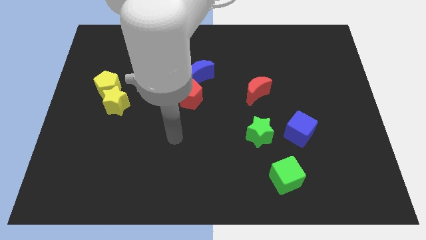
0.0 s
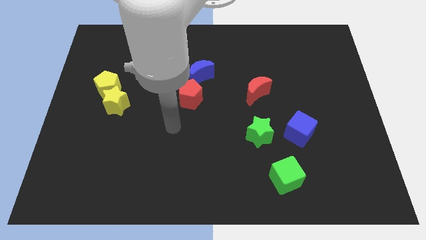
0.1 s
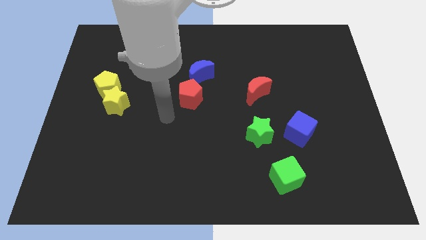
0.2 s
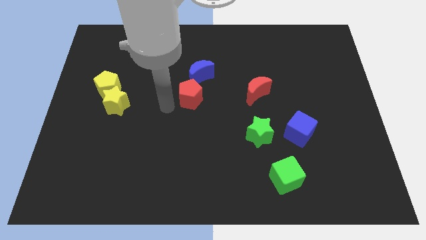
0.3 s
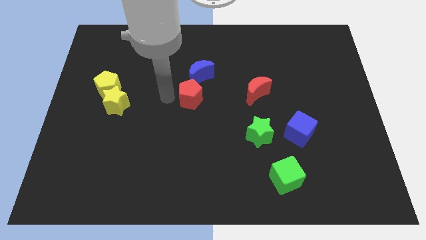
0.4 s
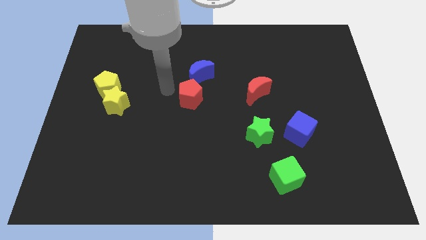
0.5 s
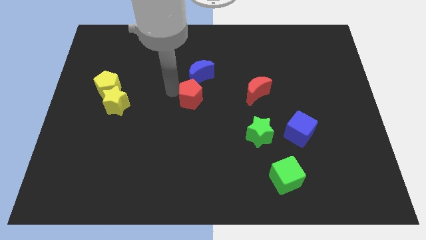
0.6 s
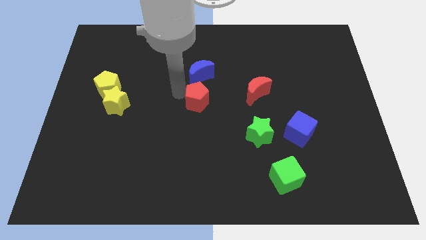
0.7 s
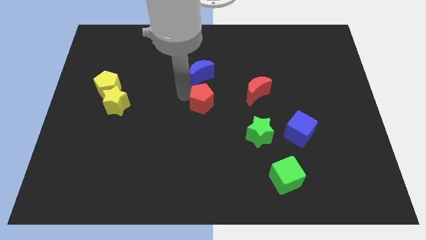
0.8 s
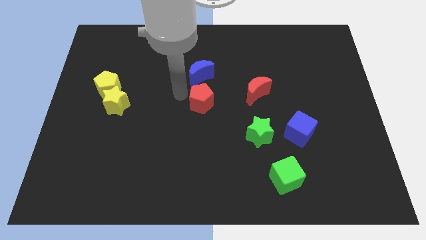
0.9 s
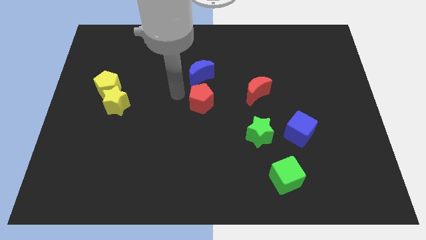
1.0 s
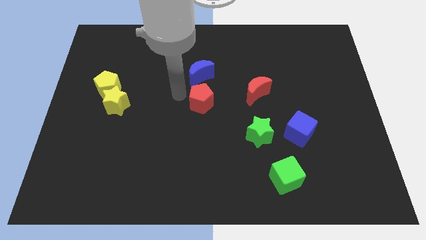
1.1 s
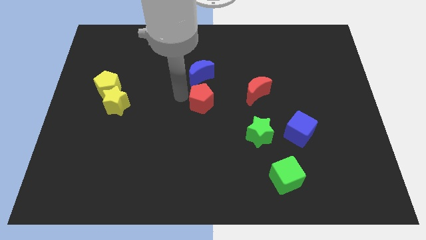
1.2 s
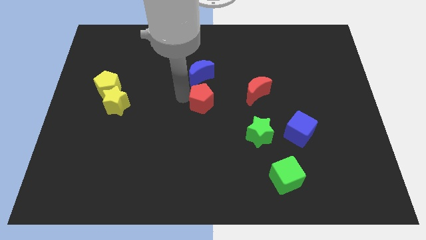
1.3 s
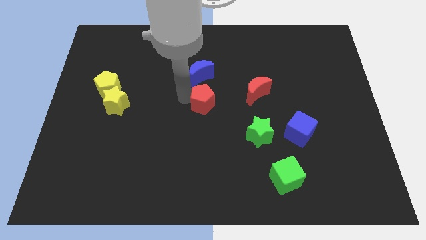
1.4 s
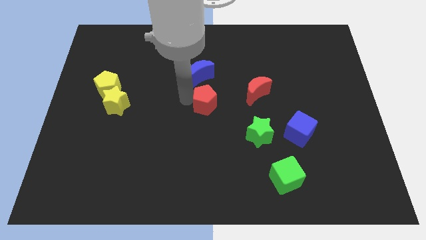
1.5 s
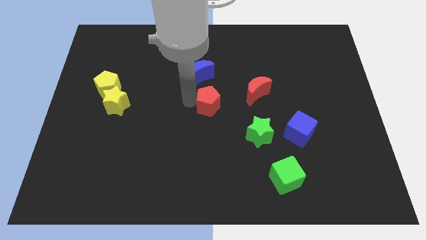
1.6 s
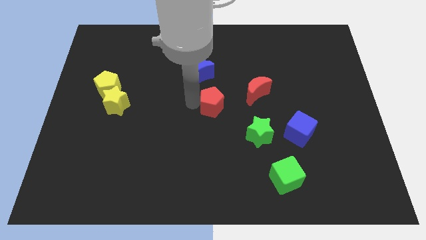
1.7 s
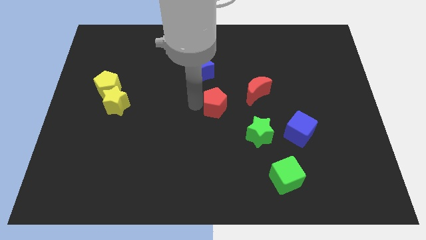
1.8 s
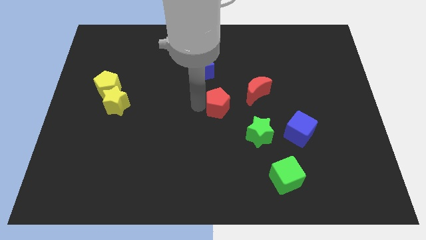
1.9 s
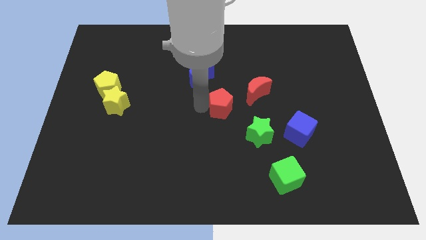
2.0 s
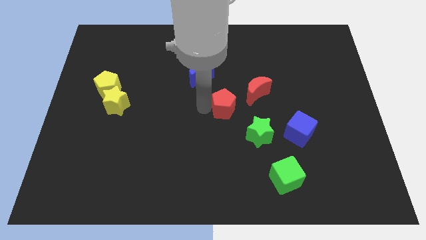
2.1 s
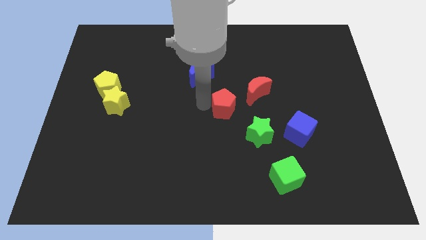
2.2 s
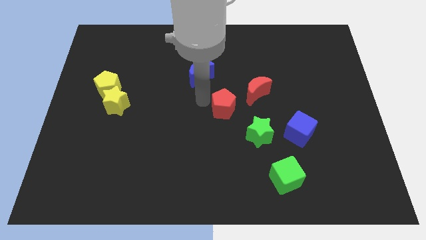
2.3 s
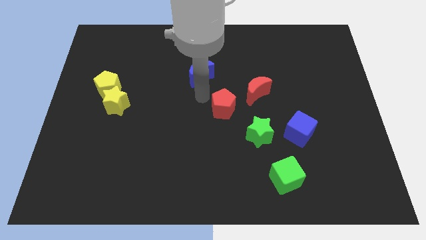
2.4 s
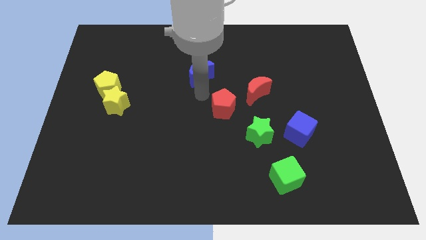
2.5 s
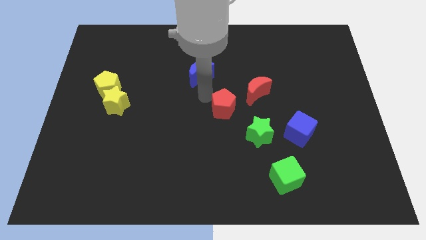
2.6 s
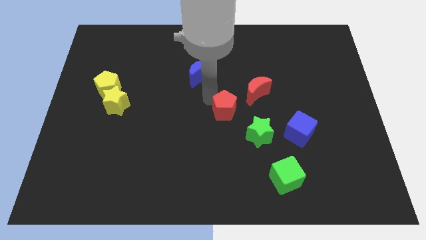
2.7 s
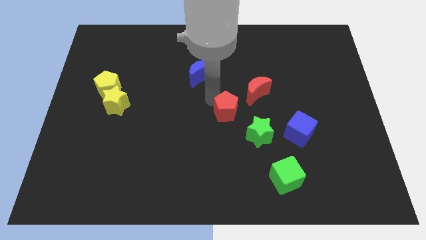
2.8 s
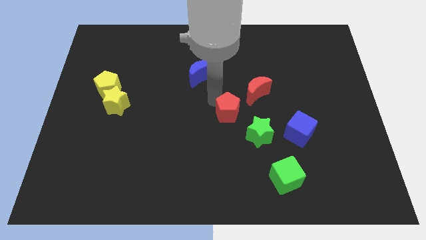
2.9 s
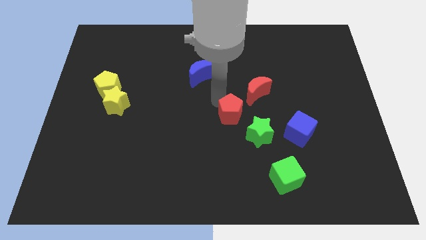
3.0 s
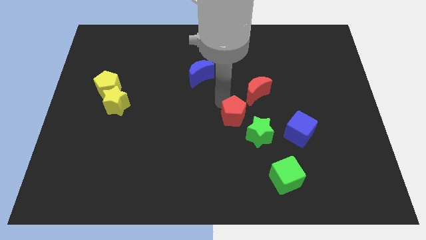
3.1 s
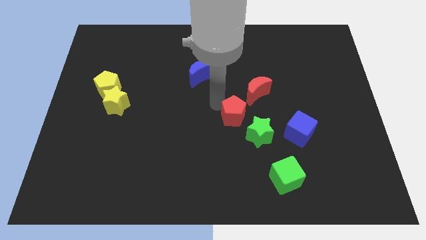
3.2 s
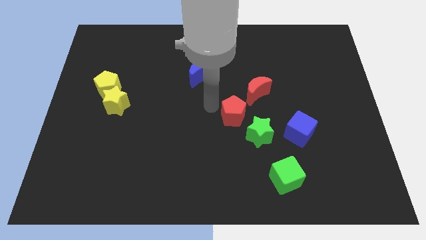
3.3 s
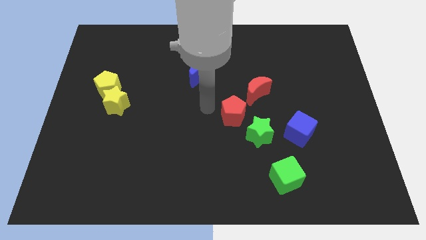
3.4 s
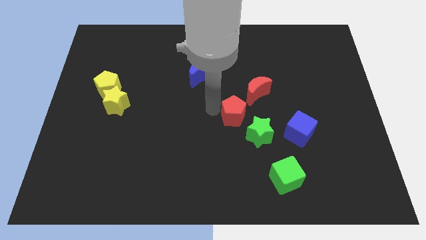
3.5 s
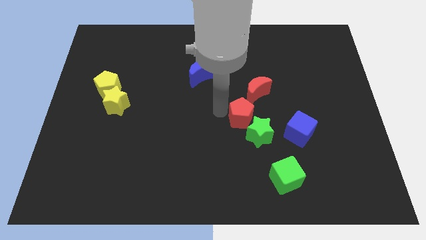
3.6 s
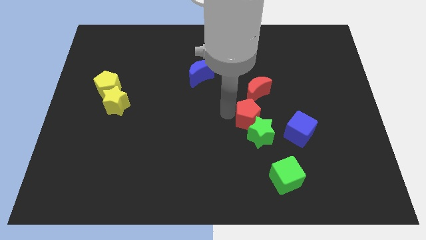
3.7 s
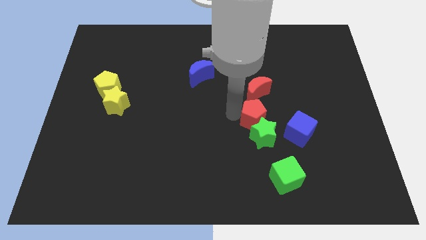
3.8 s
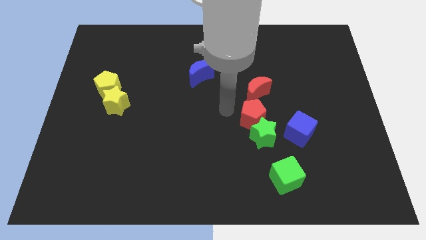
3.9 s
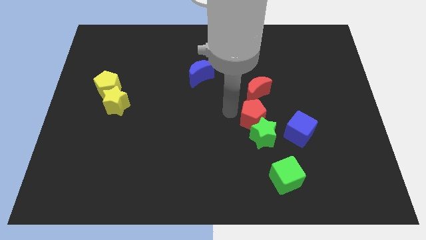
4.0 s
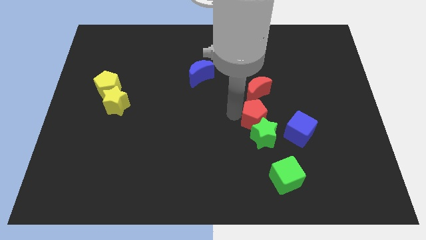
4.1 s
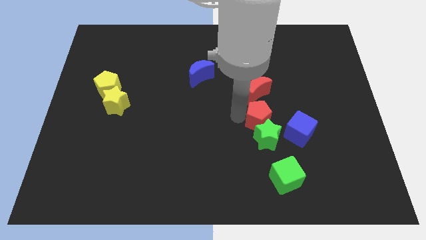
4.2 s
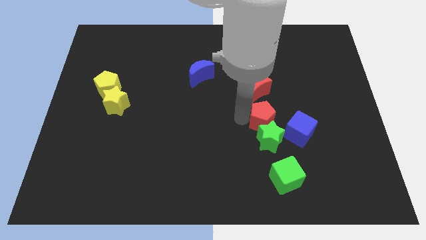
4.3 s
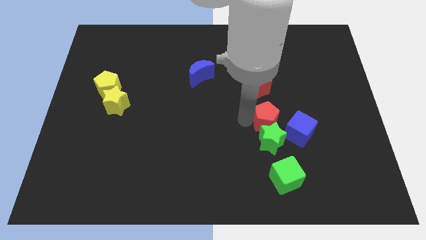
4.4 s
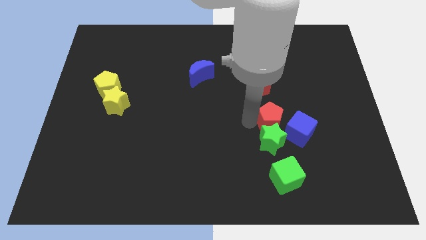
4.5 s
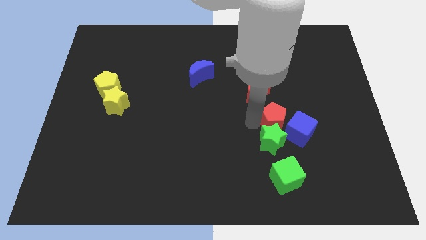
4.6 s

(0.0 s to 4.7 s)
put the red pentagon to the blue cube

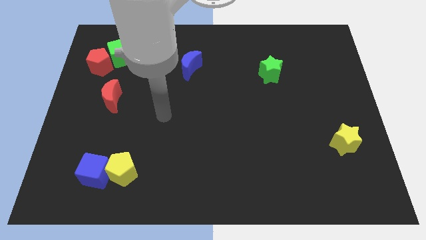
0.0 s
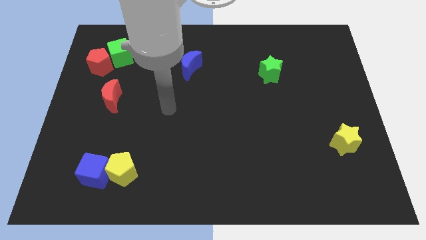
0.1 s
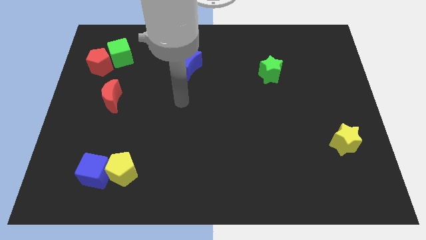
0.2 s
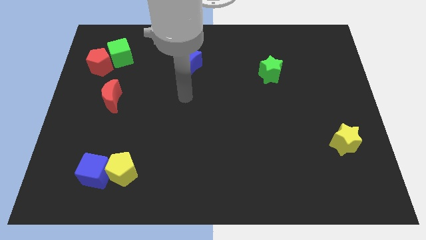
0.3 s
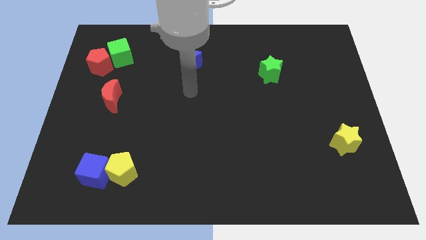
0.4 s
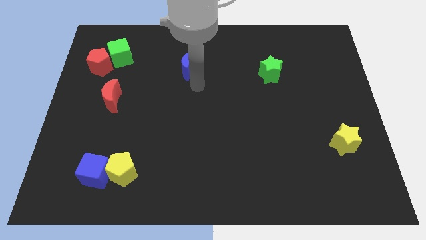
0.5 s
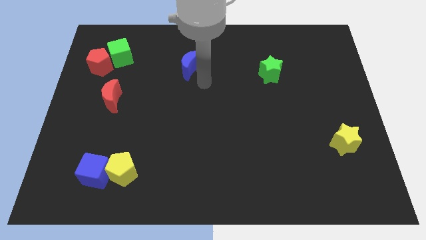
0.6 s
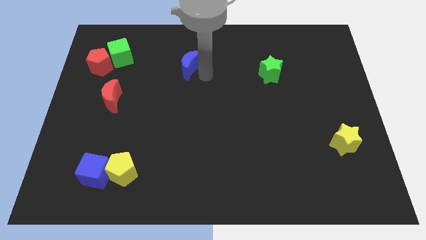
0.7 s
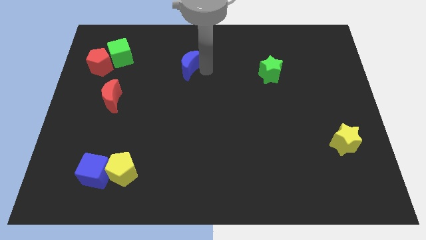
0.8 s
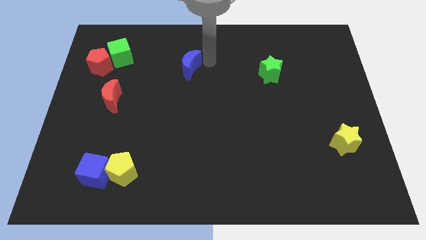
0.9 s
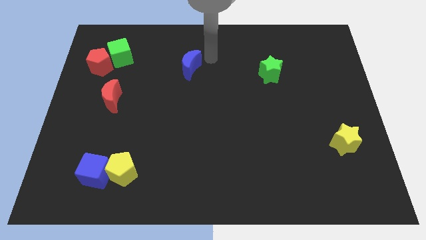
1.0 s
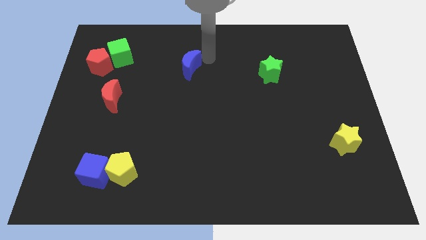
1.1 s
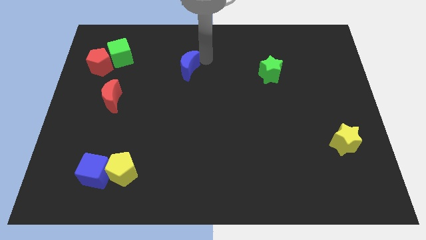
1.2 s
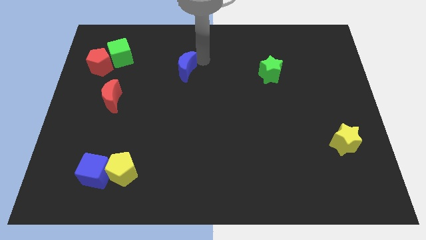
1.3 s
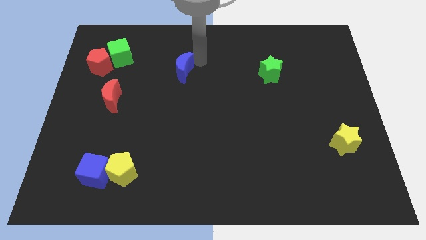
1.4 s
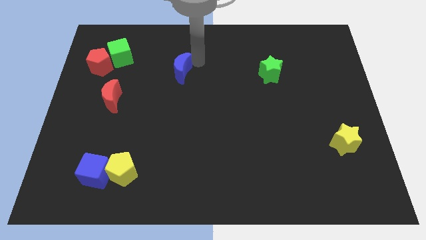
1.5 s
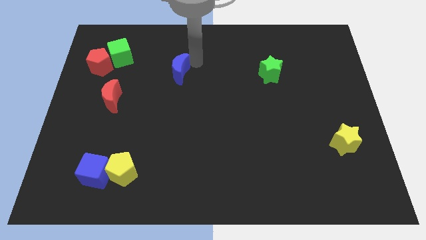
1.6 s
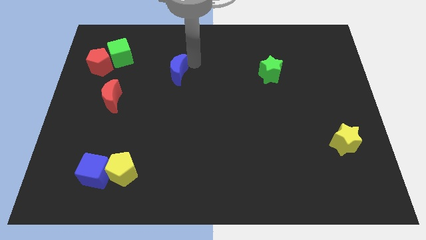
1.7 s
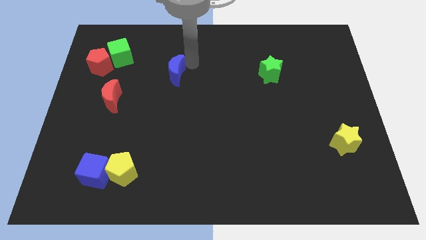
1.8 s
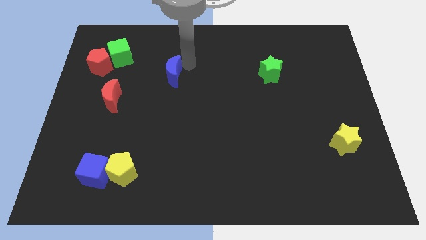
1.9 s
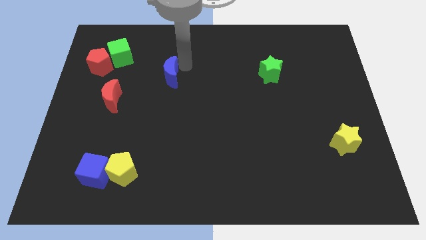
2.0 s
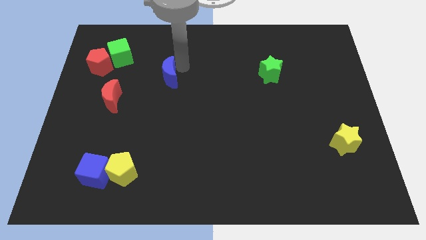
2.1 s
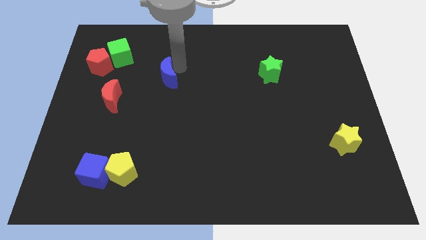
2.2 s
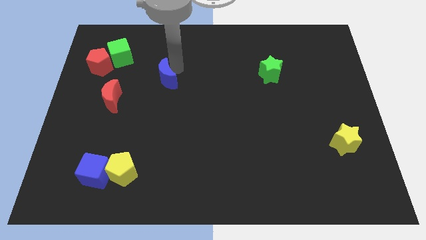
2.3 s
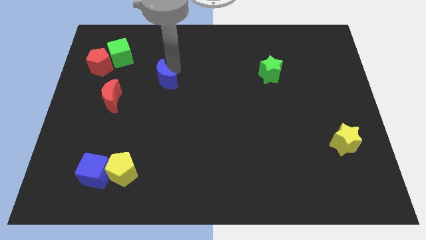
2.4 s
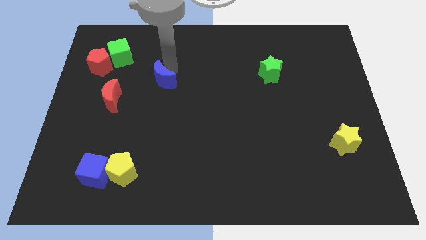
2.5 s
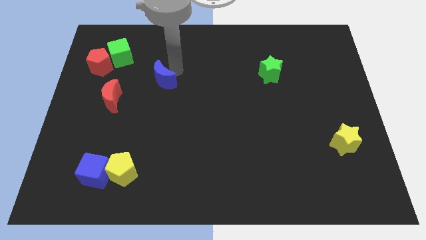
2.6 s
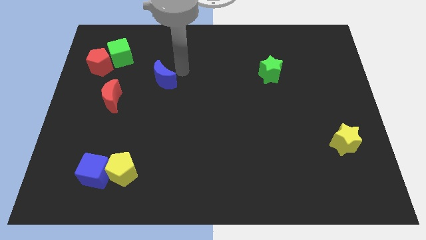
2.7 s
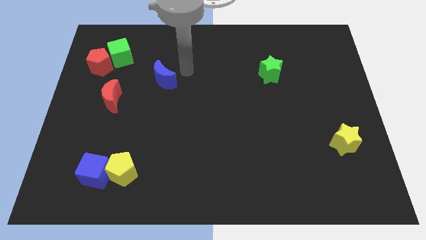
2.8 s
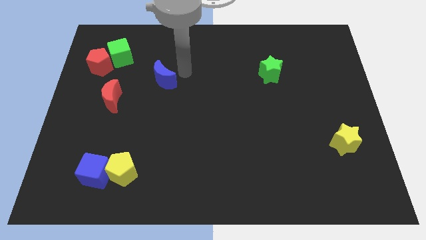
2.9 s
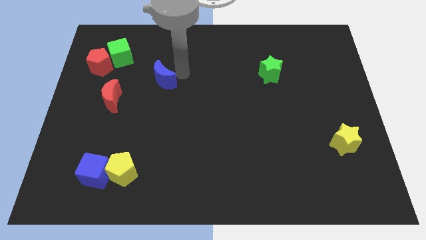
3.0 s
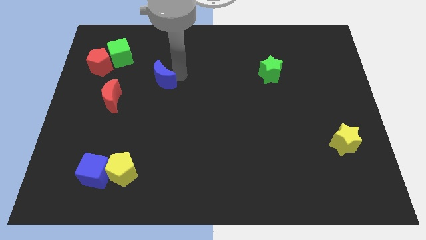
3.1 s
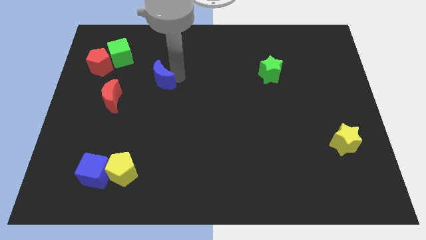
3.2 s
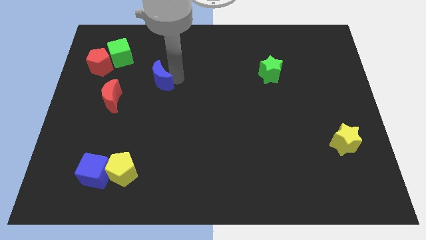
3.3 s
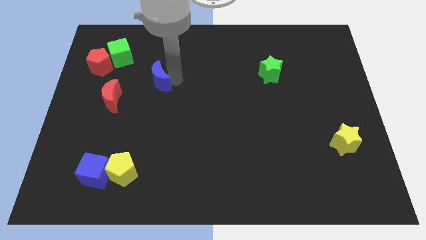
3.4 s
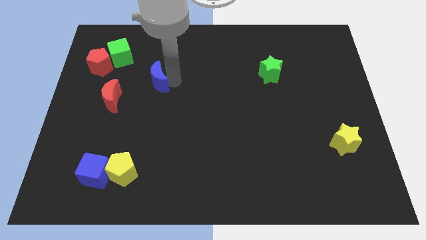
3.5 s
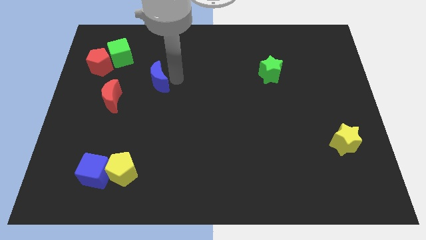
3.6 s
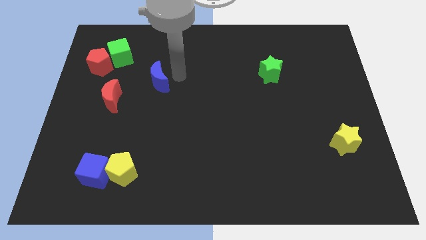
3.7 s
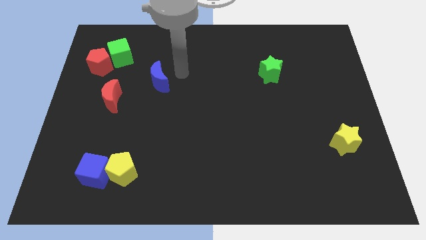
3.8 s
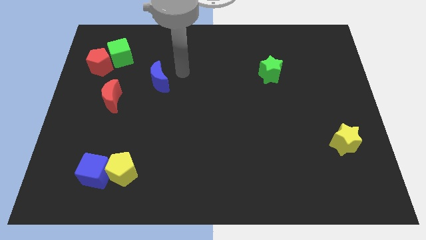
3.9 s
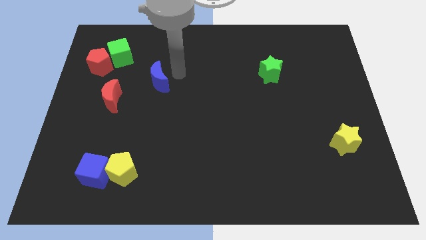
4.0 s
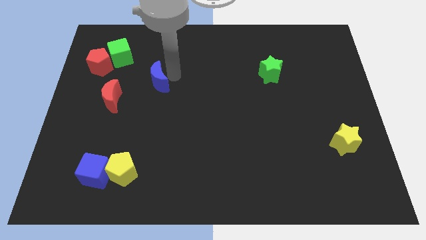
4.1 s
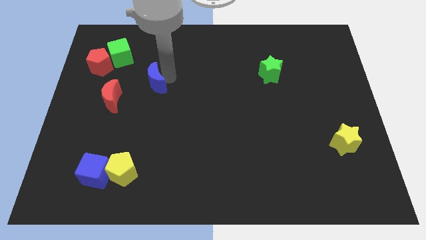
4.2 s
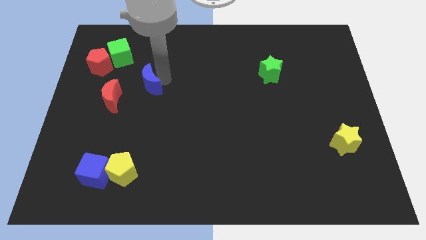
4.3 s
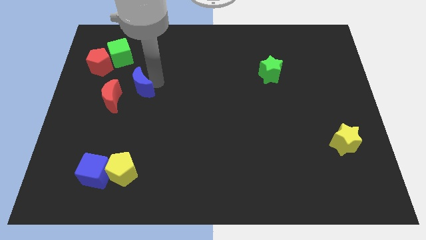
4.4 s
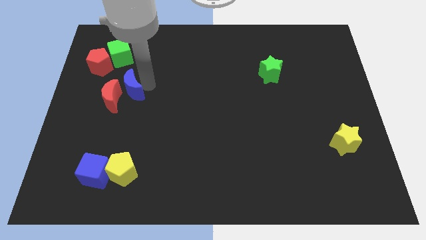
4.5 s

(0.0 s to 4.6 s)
push the blue moon close to the red moon
